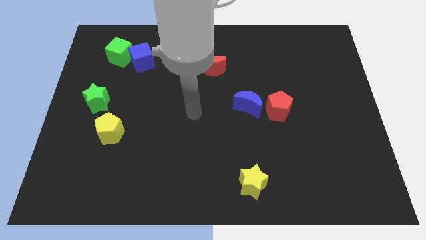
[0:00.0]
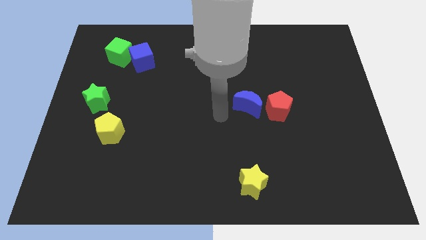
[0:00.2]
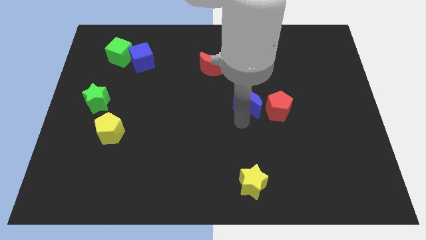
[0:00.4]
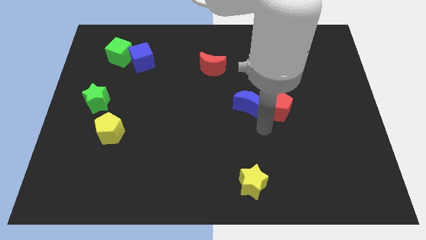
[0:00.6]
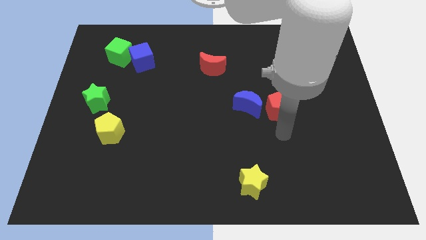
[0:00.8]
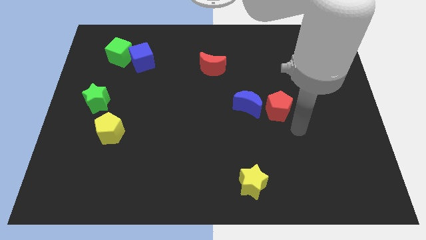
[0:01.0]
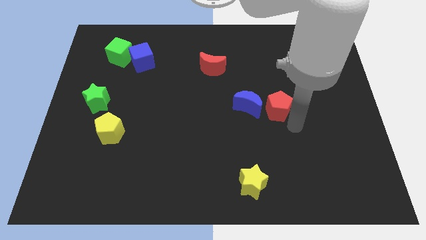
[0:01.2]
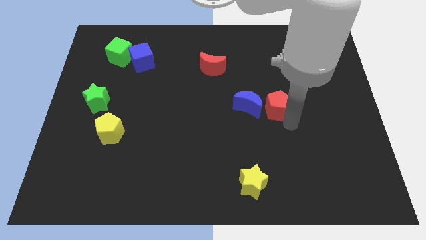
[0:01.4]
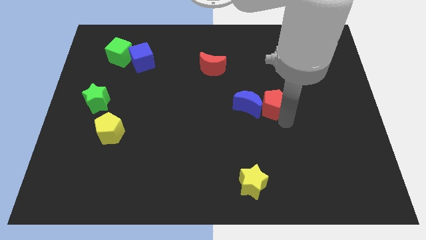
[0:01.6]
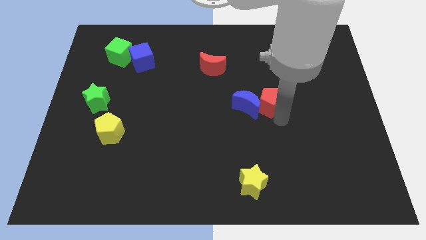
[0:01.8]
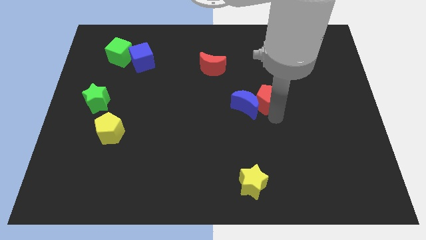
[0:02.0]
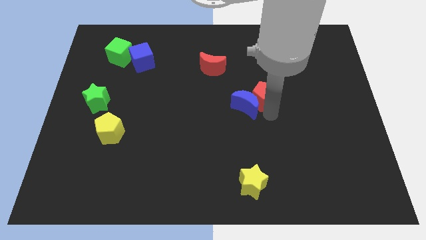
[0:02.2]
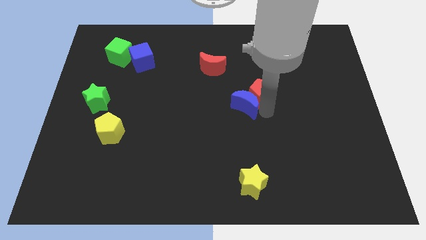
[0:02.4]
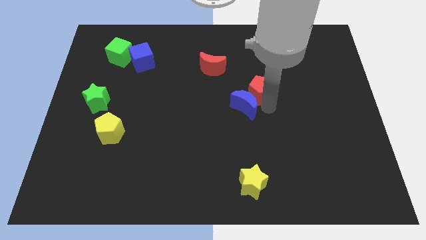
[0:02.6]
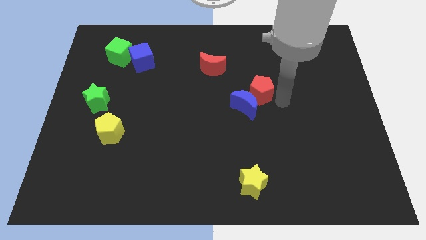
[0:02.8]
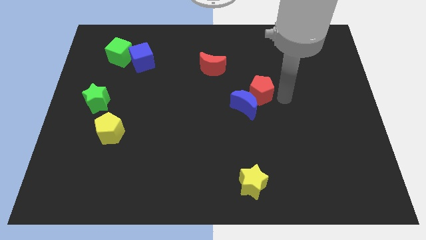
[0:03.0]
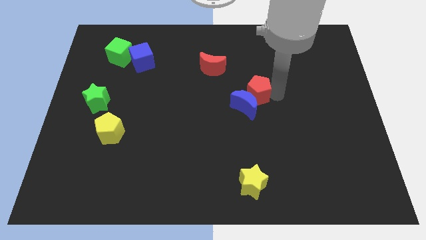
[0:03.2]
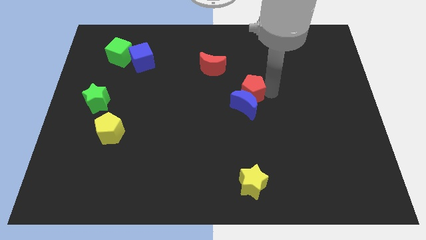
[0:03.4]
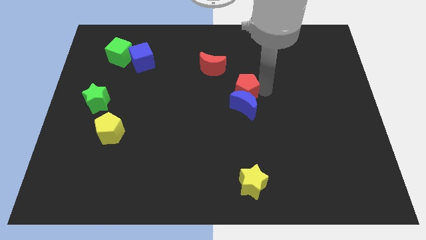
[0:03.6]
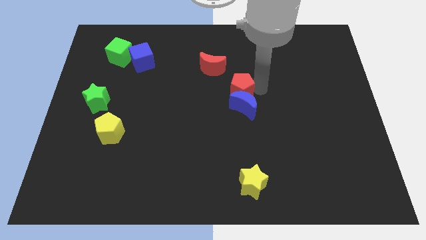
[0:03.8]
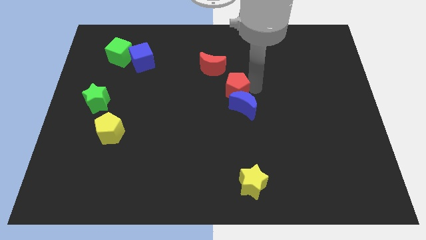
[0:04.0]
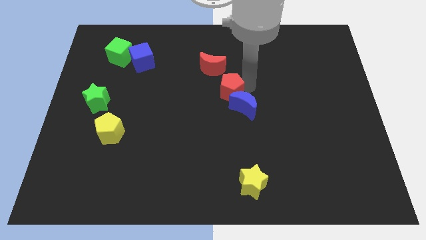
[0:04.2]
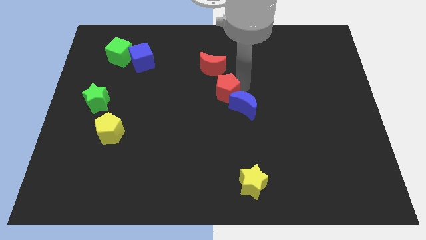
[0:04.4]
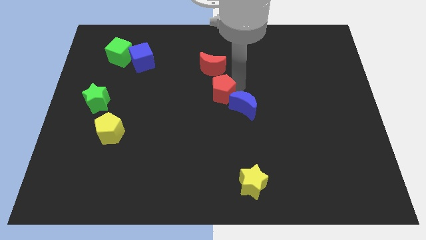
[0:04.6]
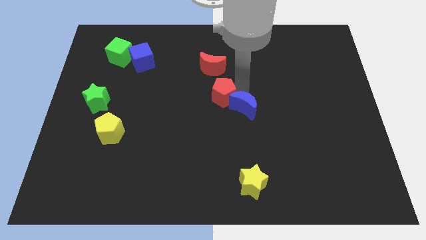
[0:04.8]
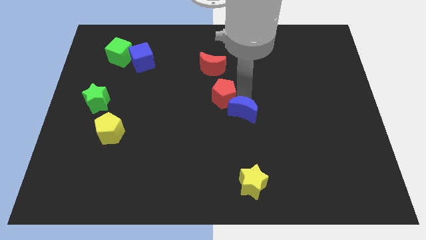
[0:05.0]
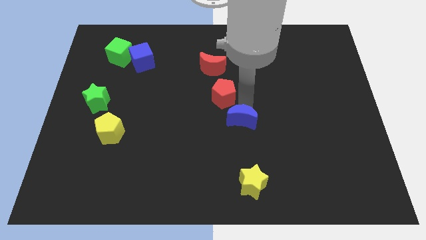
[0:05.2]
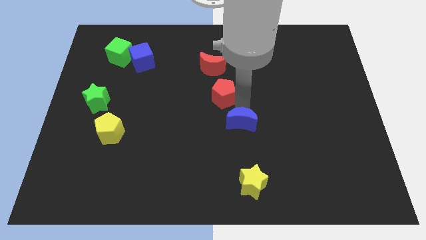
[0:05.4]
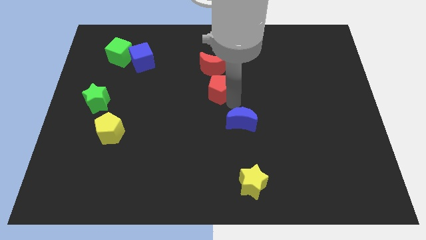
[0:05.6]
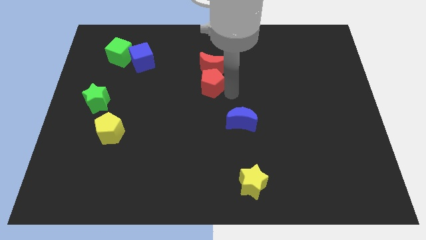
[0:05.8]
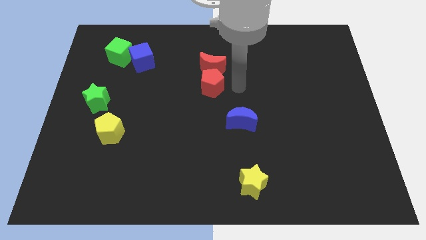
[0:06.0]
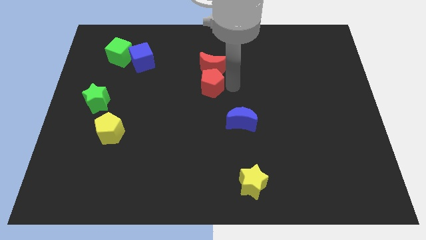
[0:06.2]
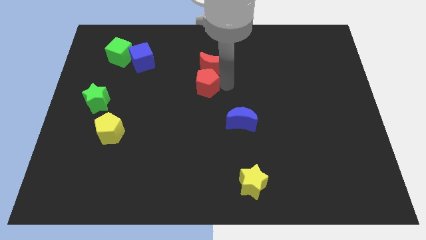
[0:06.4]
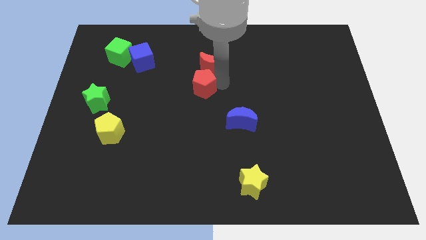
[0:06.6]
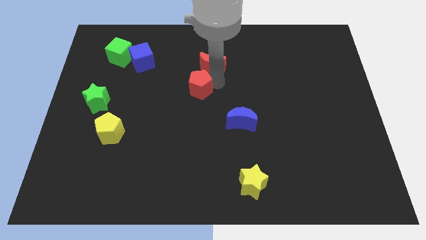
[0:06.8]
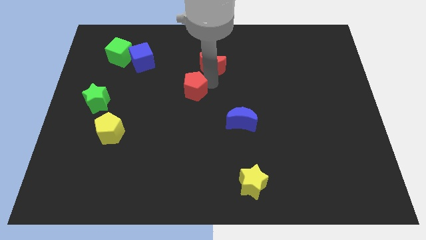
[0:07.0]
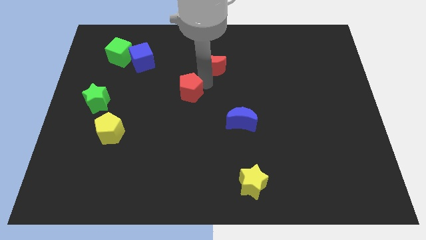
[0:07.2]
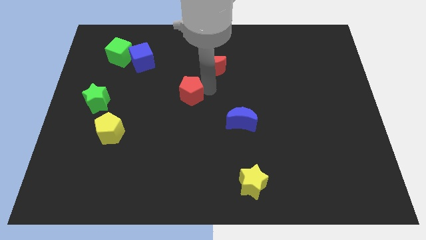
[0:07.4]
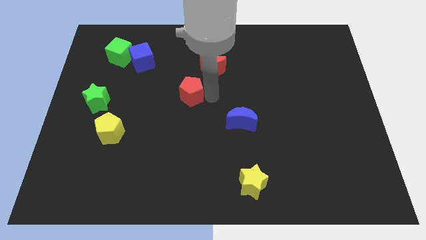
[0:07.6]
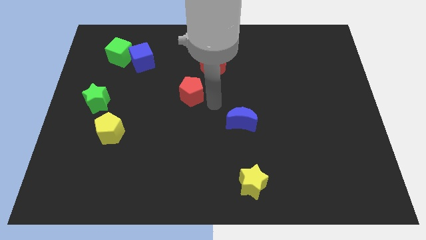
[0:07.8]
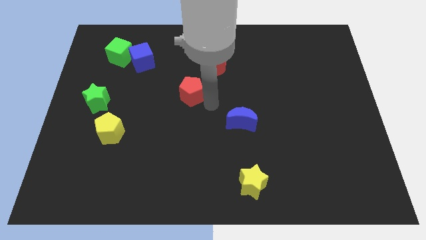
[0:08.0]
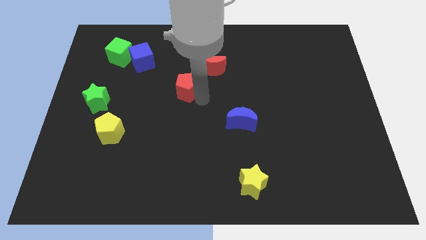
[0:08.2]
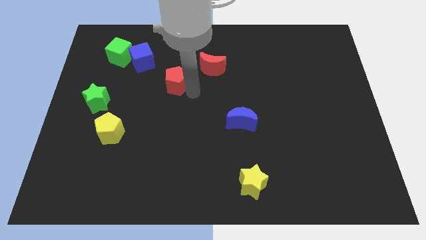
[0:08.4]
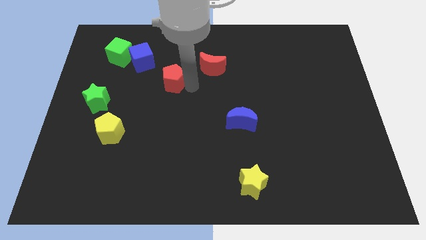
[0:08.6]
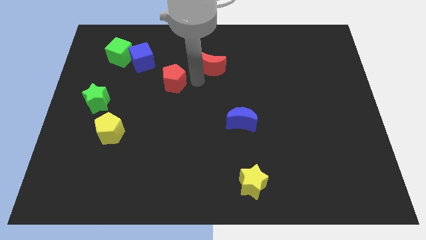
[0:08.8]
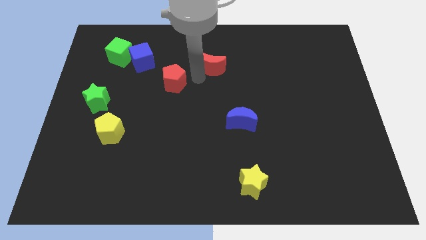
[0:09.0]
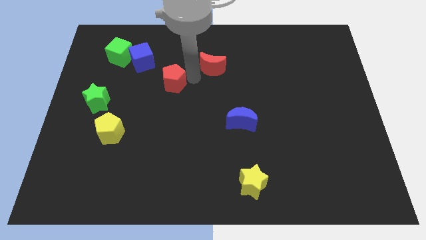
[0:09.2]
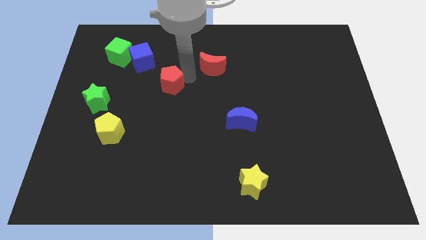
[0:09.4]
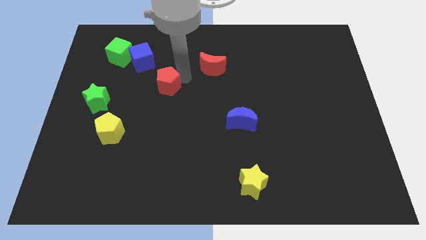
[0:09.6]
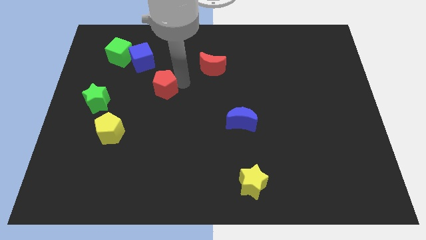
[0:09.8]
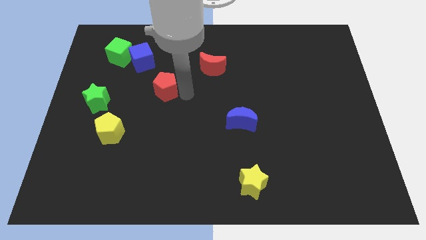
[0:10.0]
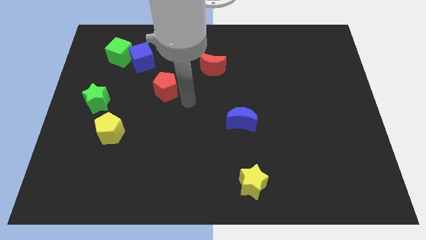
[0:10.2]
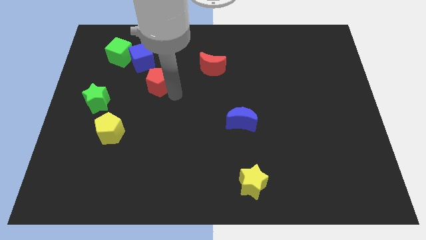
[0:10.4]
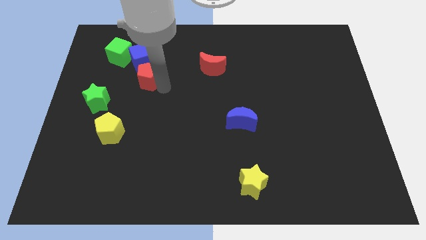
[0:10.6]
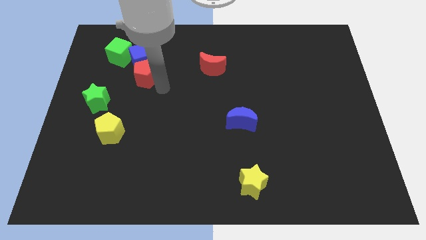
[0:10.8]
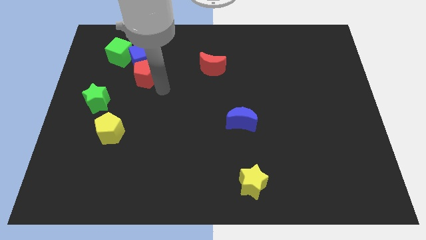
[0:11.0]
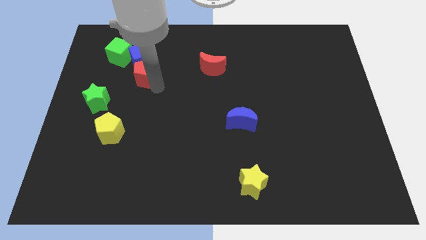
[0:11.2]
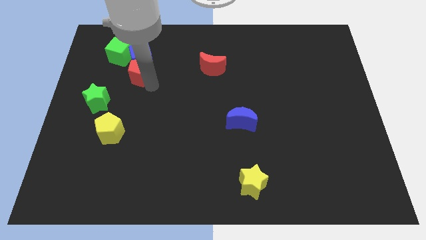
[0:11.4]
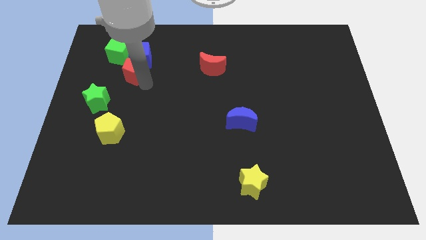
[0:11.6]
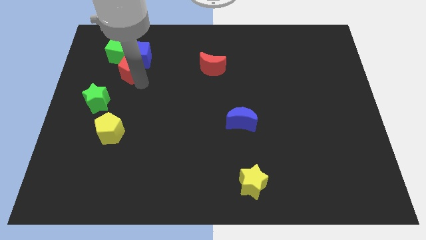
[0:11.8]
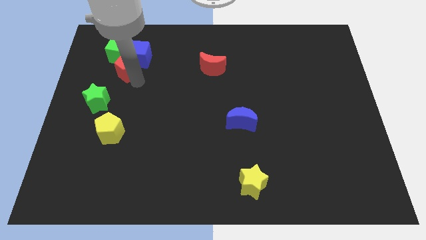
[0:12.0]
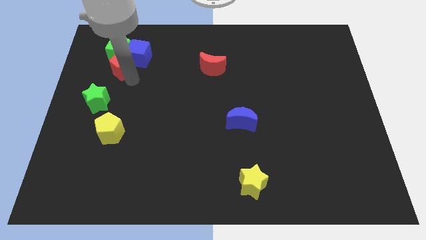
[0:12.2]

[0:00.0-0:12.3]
push the red pentagon close to the green cube
